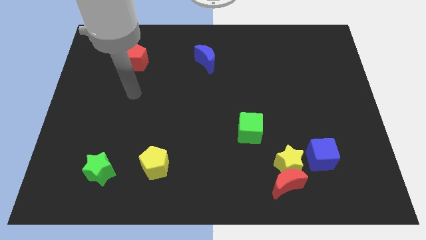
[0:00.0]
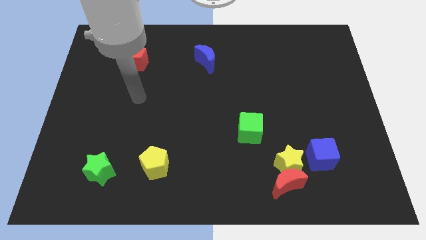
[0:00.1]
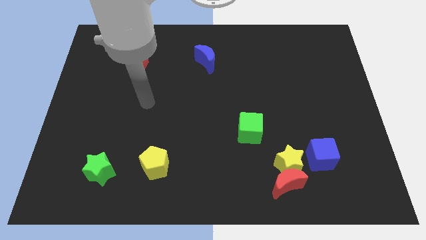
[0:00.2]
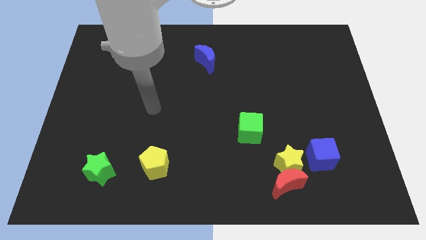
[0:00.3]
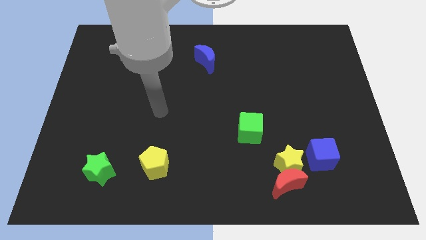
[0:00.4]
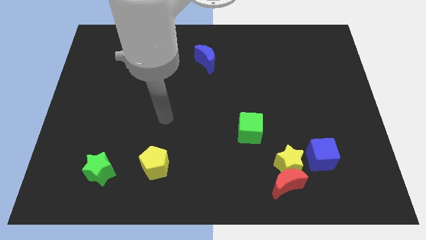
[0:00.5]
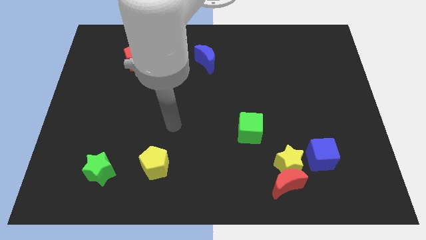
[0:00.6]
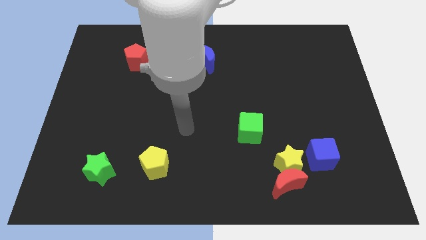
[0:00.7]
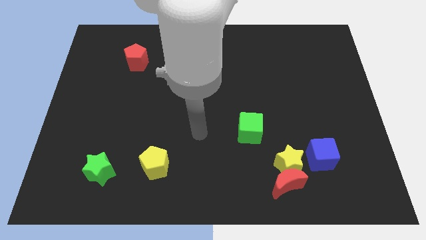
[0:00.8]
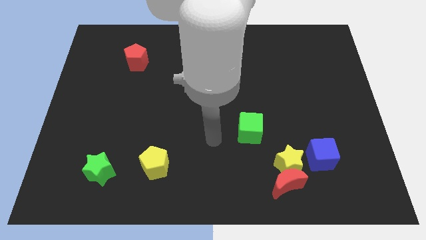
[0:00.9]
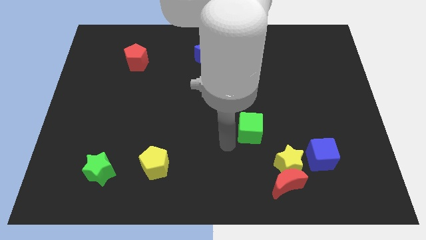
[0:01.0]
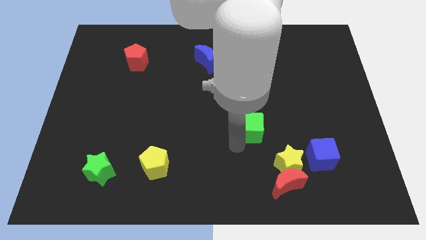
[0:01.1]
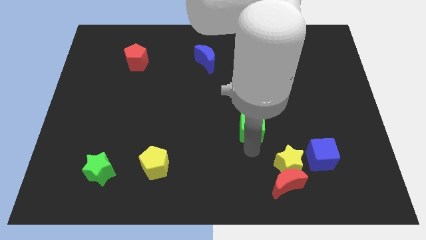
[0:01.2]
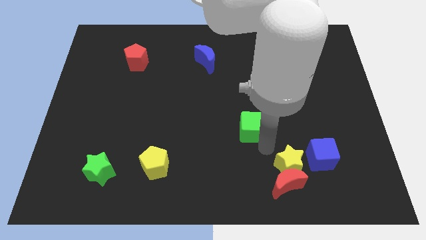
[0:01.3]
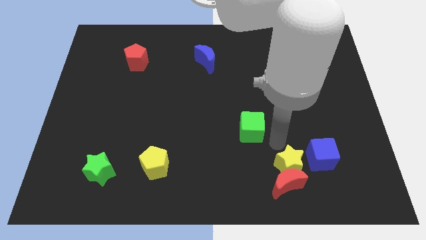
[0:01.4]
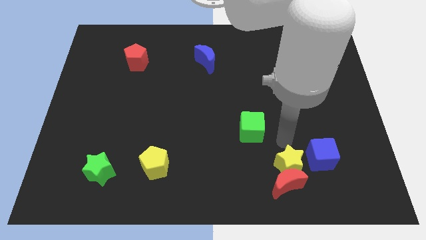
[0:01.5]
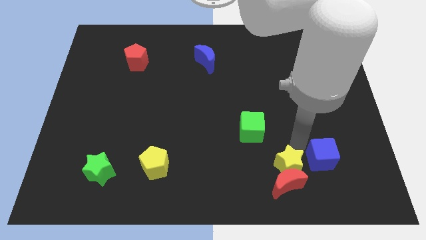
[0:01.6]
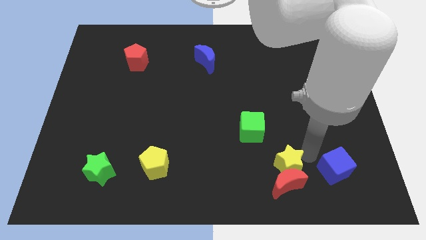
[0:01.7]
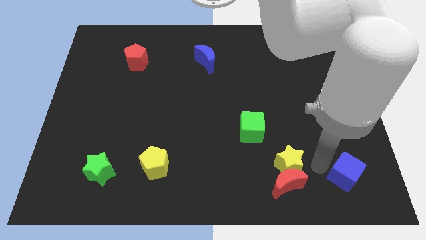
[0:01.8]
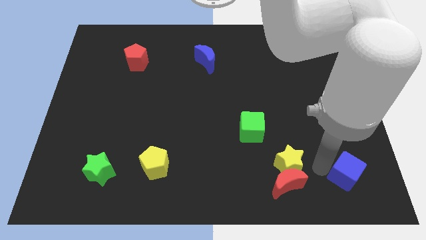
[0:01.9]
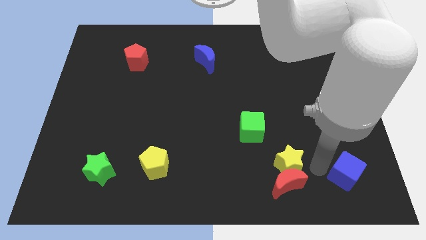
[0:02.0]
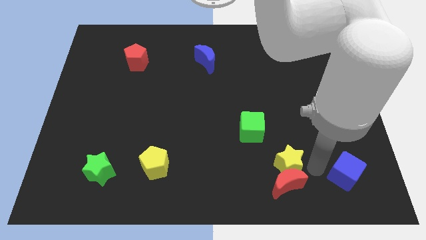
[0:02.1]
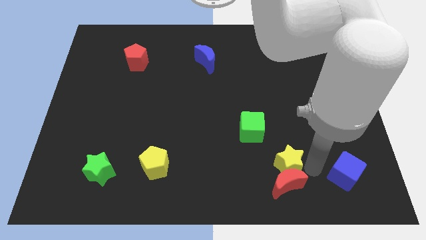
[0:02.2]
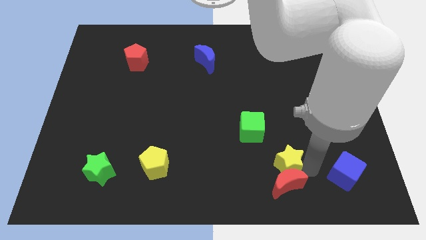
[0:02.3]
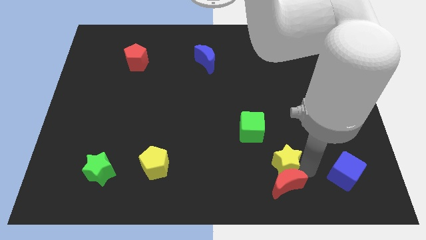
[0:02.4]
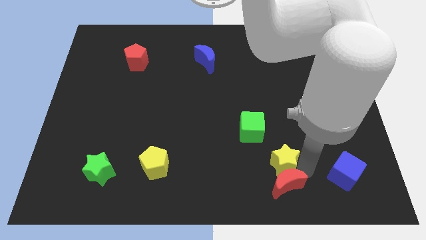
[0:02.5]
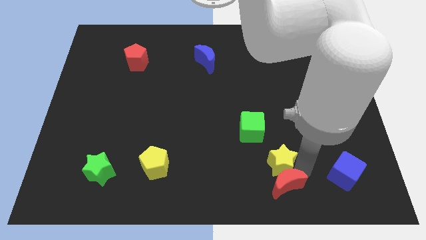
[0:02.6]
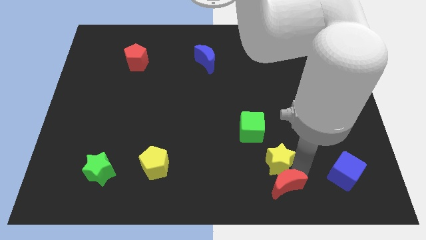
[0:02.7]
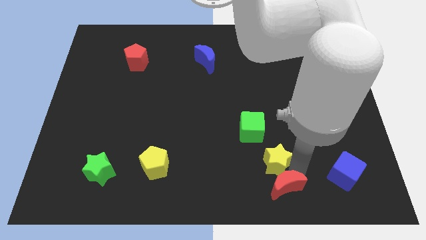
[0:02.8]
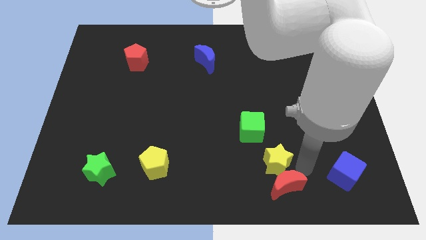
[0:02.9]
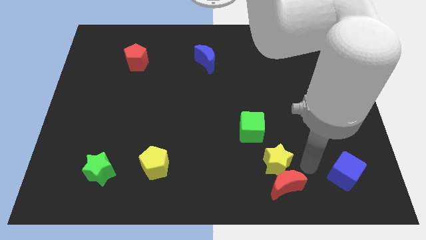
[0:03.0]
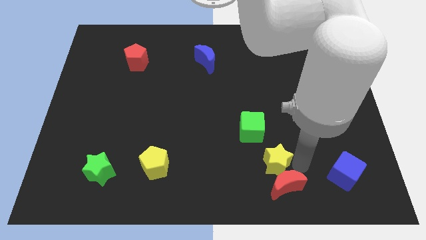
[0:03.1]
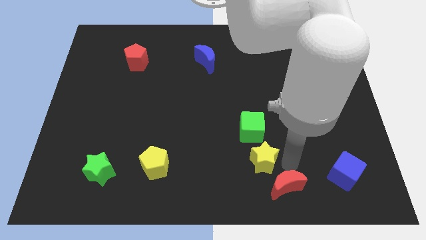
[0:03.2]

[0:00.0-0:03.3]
separate the yellow star from the red moon and blue cube

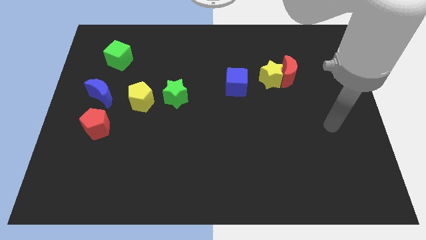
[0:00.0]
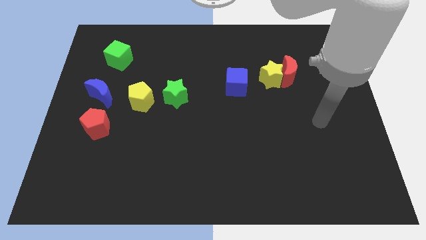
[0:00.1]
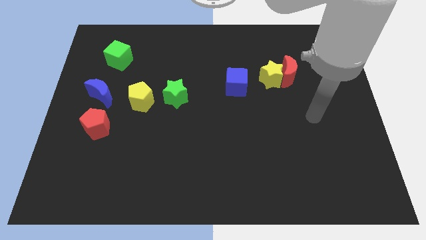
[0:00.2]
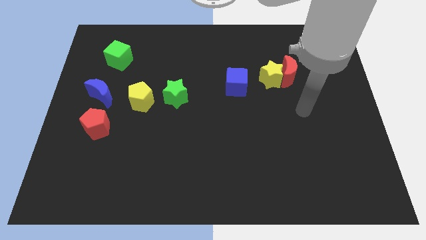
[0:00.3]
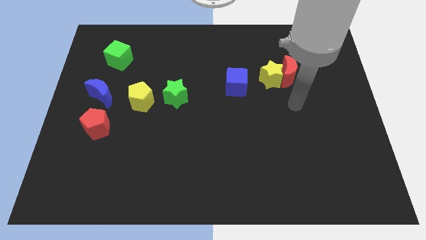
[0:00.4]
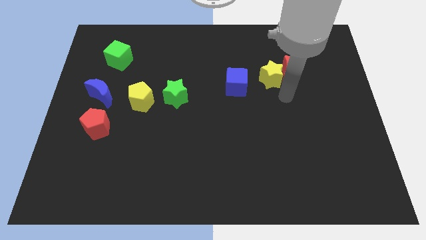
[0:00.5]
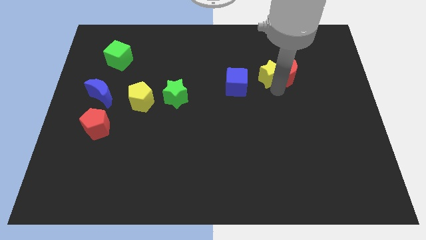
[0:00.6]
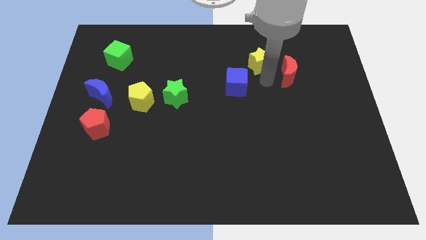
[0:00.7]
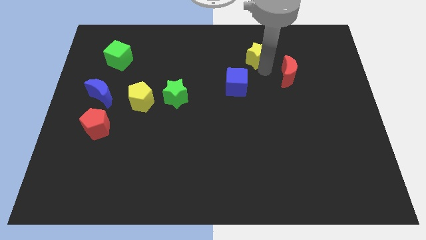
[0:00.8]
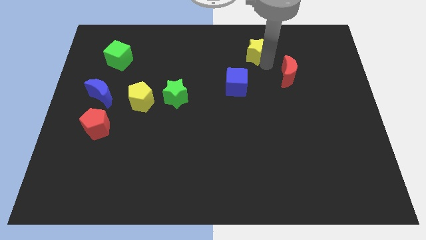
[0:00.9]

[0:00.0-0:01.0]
move the red moon away from the yellow star

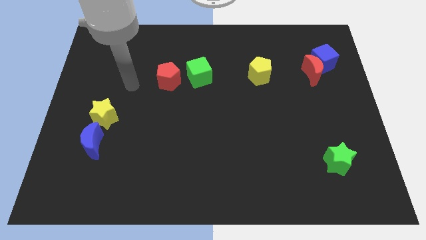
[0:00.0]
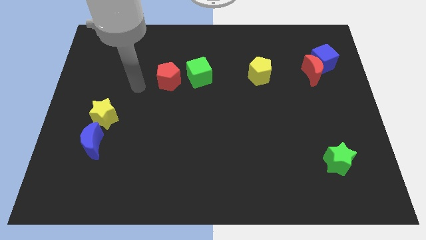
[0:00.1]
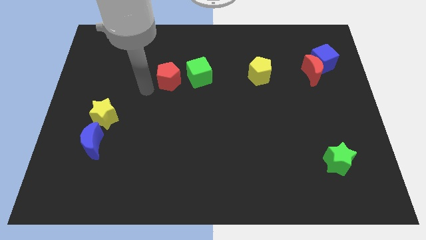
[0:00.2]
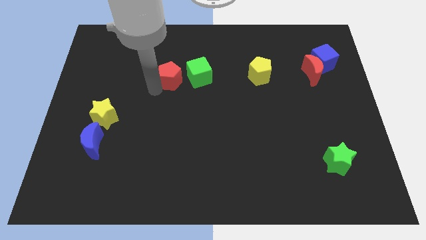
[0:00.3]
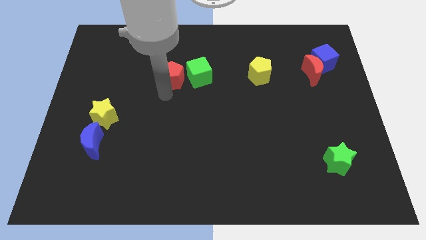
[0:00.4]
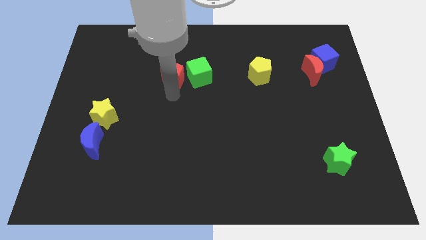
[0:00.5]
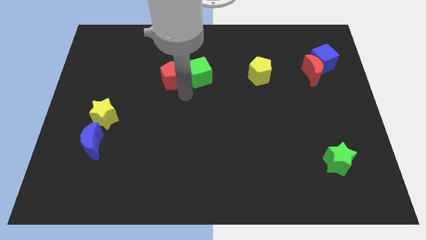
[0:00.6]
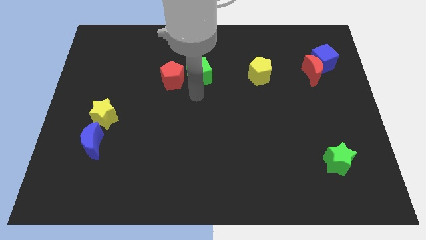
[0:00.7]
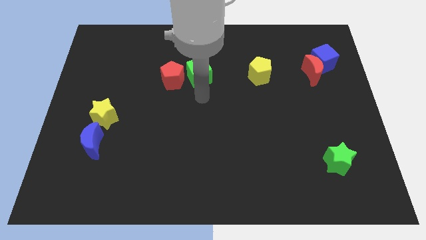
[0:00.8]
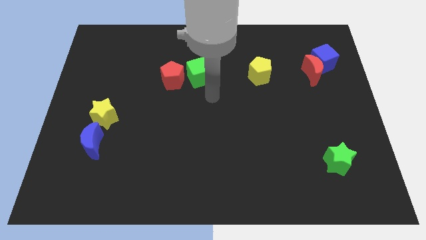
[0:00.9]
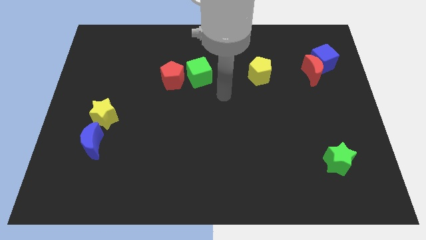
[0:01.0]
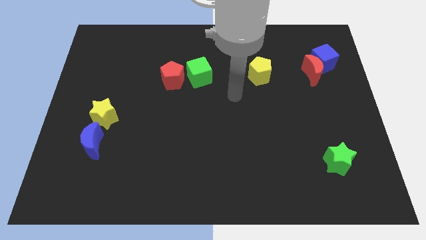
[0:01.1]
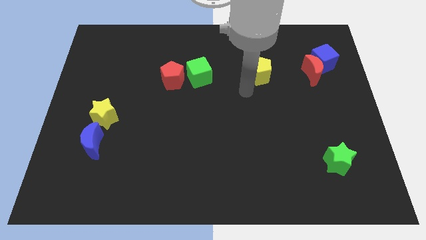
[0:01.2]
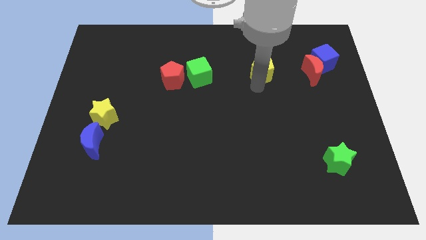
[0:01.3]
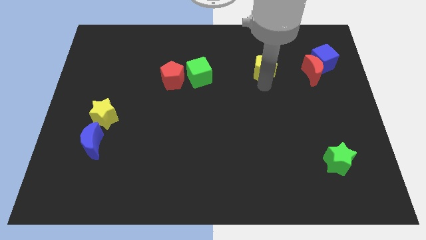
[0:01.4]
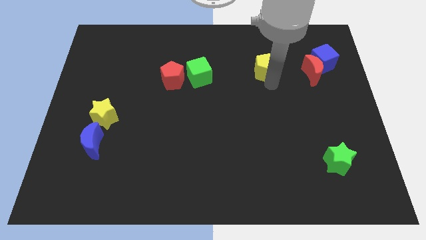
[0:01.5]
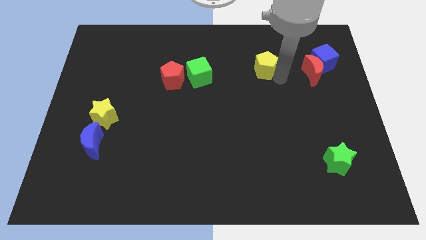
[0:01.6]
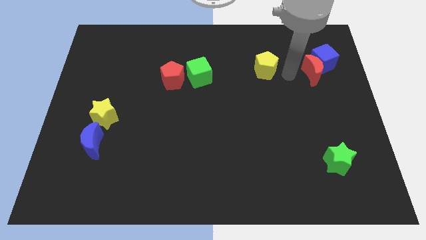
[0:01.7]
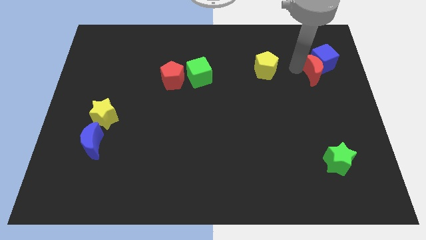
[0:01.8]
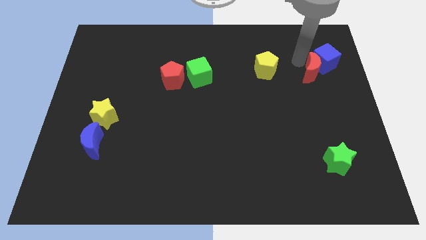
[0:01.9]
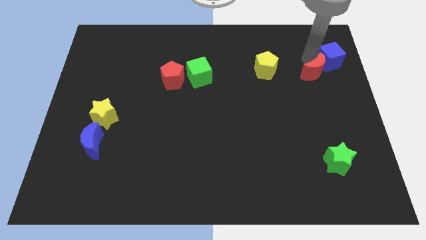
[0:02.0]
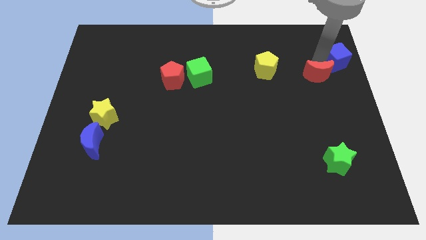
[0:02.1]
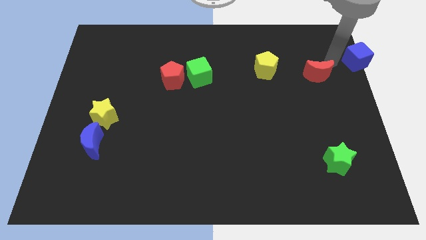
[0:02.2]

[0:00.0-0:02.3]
separate the red moon from the blue cube

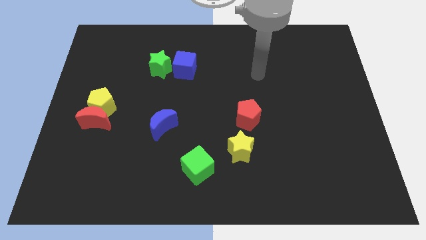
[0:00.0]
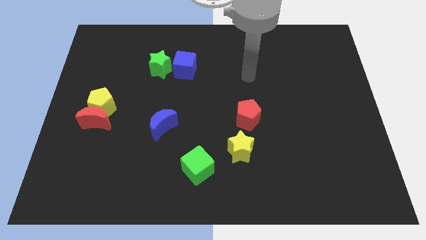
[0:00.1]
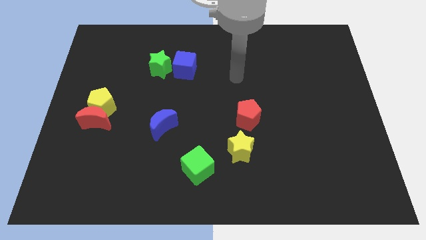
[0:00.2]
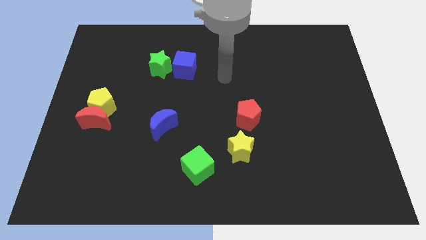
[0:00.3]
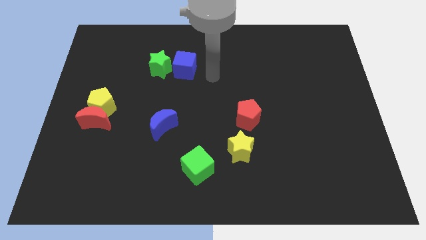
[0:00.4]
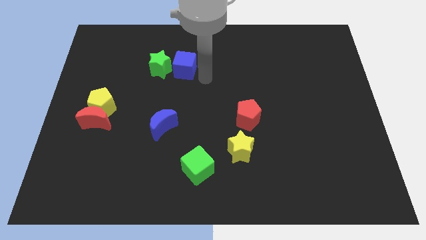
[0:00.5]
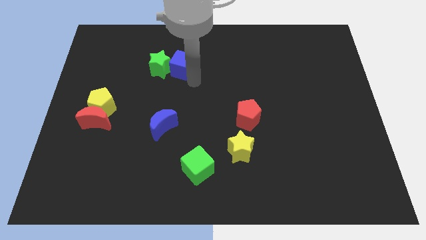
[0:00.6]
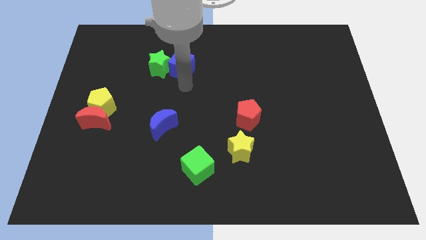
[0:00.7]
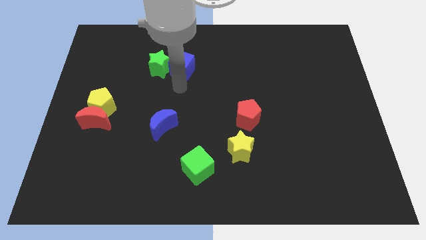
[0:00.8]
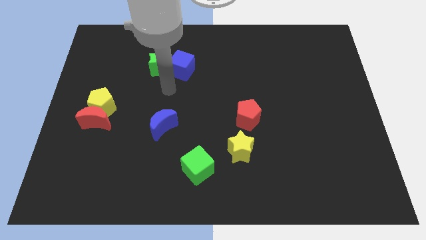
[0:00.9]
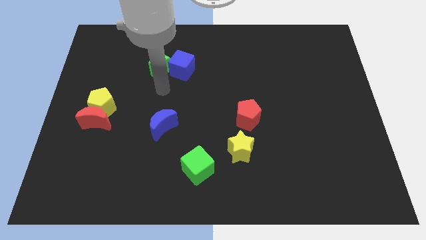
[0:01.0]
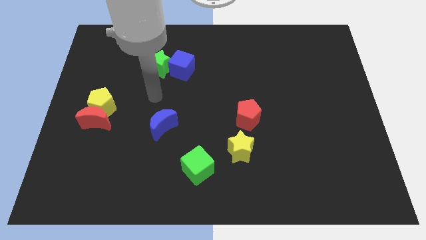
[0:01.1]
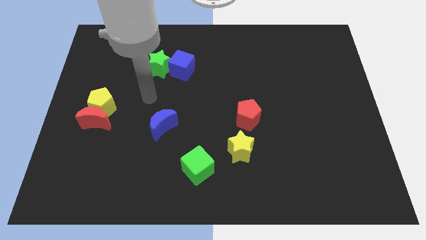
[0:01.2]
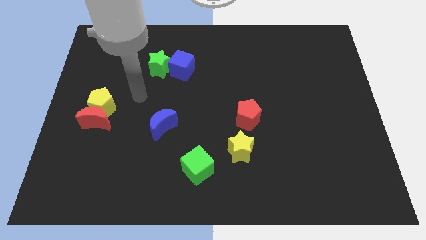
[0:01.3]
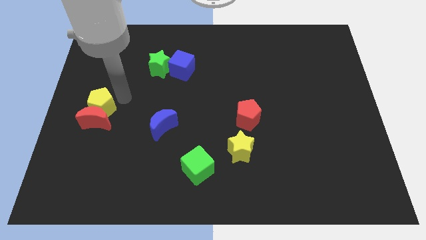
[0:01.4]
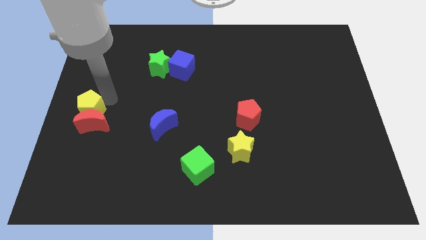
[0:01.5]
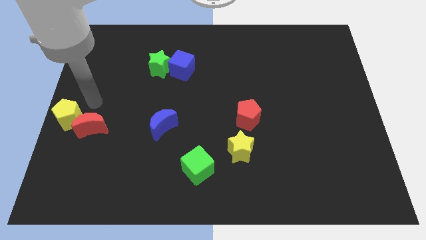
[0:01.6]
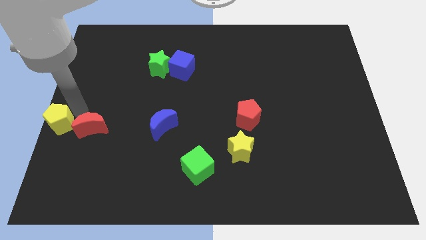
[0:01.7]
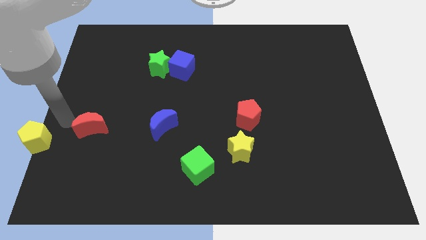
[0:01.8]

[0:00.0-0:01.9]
move the red moon away from the yellow pentagon

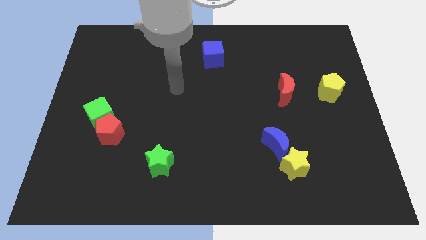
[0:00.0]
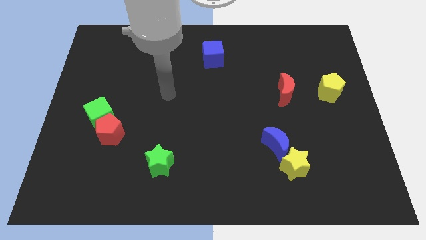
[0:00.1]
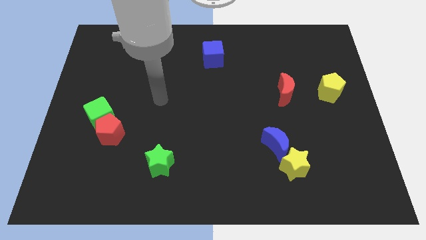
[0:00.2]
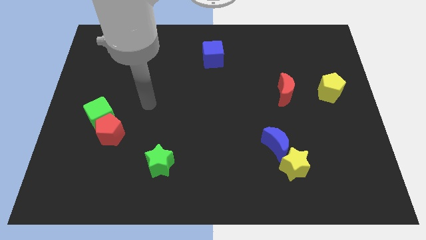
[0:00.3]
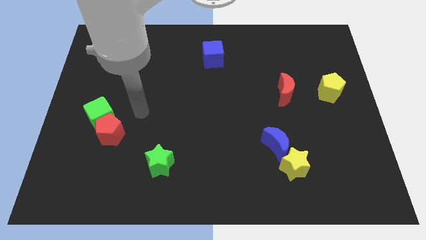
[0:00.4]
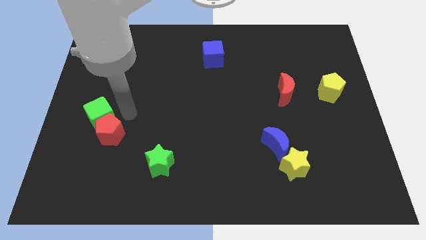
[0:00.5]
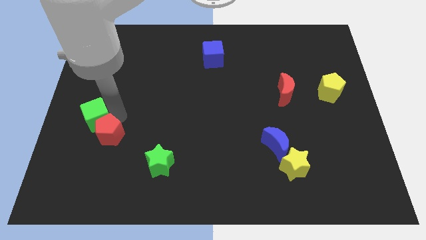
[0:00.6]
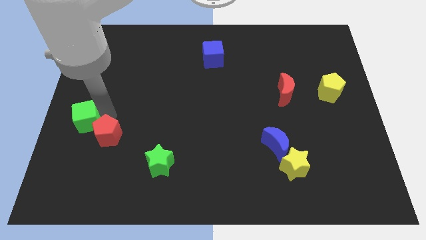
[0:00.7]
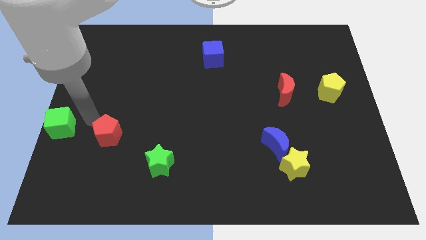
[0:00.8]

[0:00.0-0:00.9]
pull the red pentagon apart from the green cube
